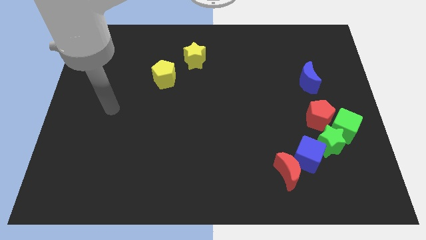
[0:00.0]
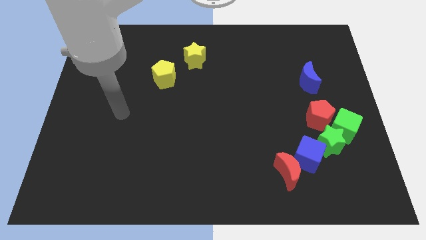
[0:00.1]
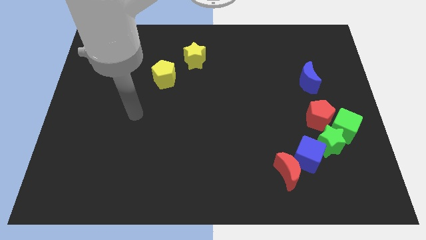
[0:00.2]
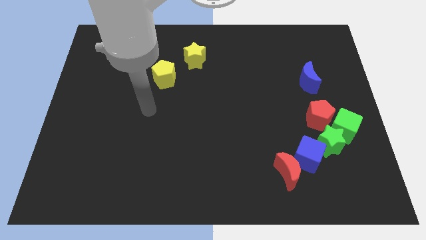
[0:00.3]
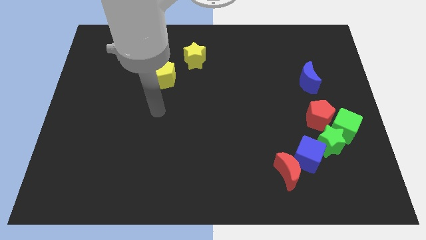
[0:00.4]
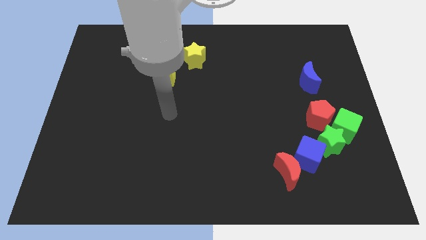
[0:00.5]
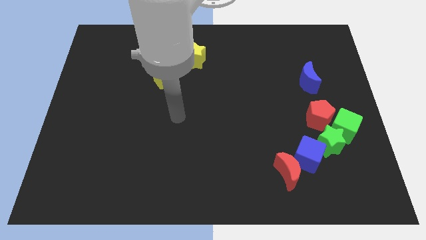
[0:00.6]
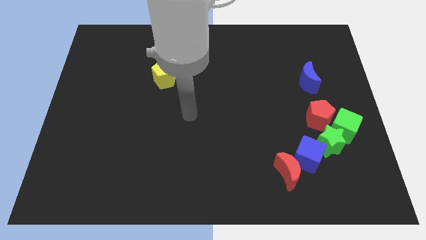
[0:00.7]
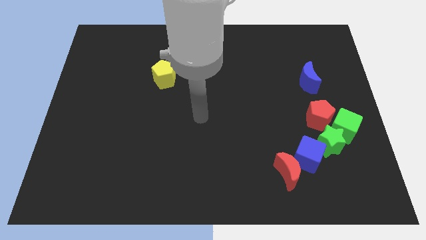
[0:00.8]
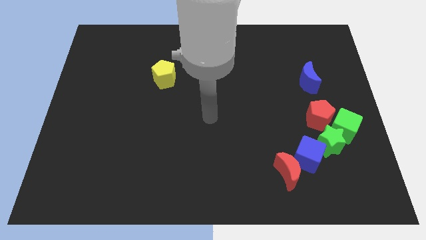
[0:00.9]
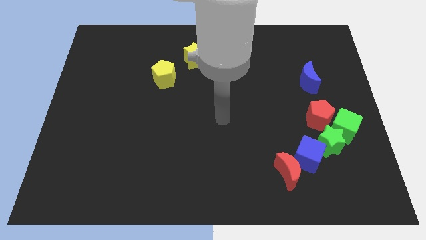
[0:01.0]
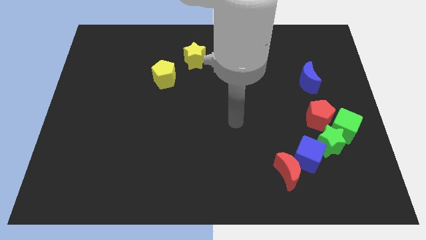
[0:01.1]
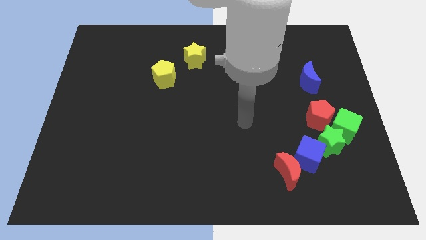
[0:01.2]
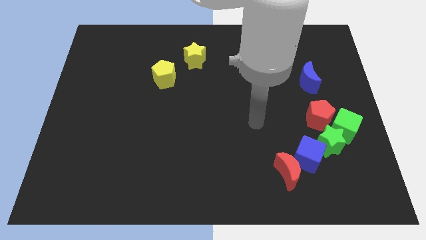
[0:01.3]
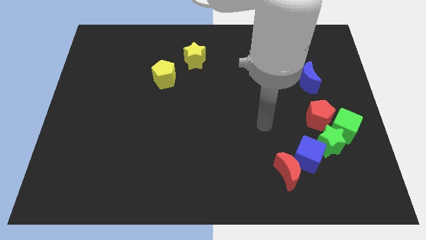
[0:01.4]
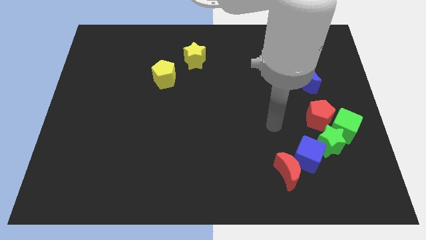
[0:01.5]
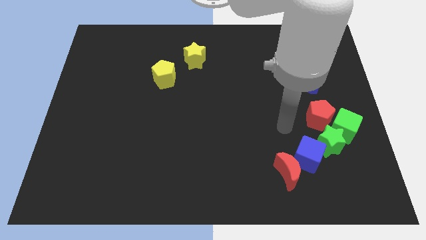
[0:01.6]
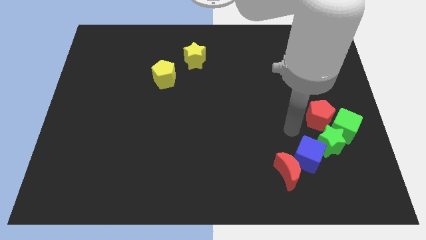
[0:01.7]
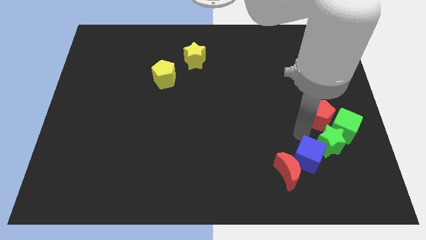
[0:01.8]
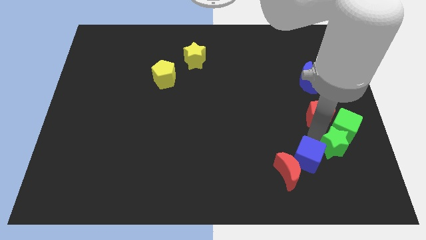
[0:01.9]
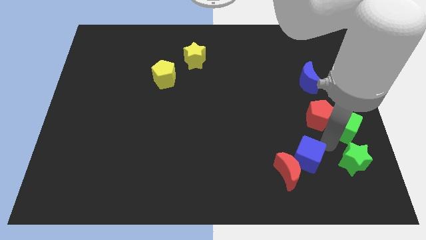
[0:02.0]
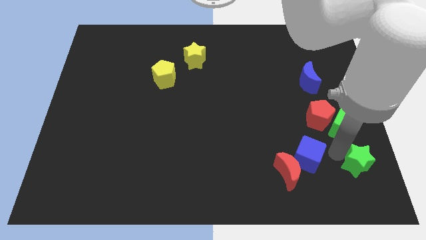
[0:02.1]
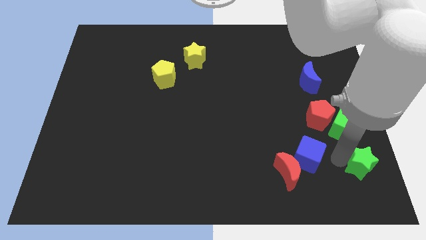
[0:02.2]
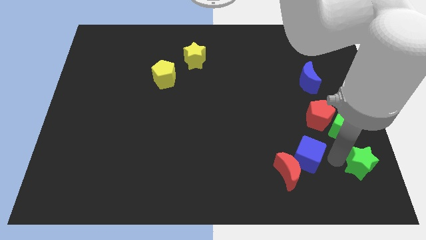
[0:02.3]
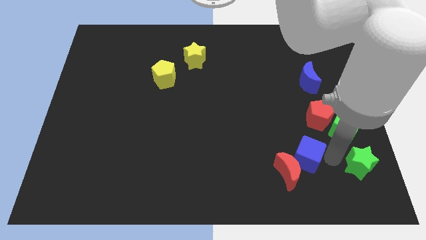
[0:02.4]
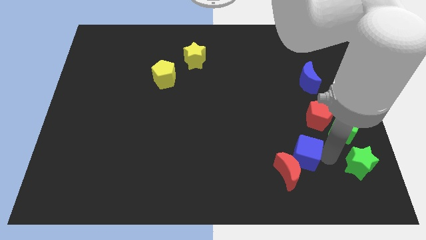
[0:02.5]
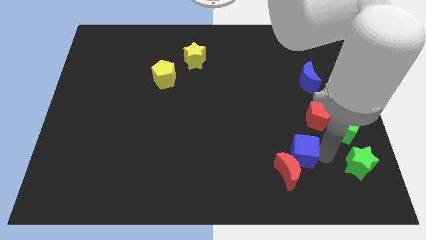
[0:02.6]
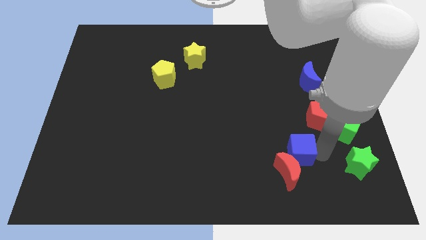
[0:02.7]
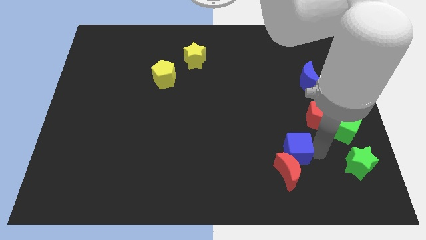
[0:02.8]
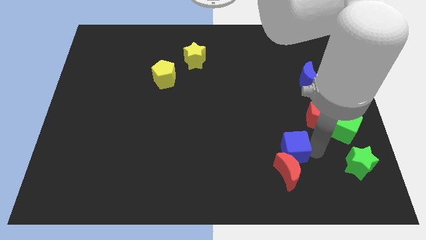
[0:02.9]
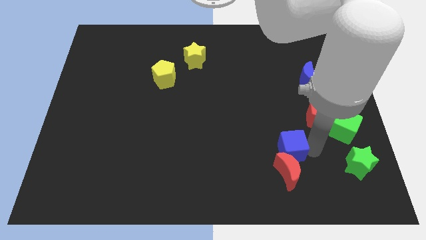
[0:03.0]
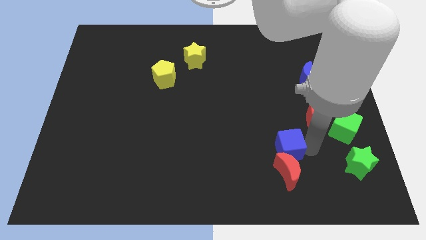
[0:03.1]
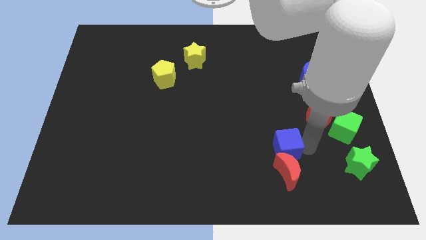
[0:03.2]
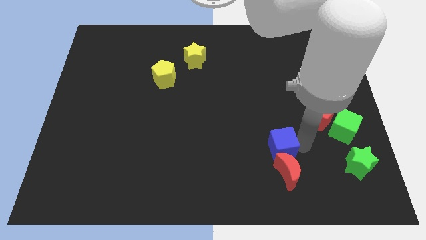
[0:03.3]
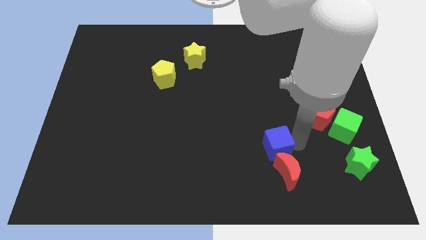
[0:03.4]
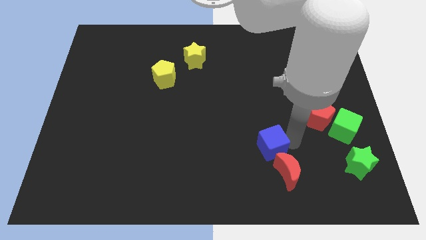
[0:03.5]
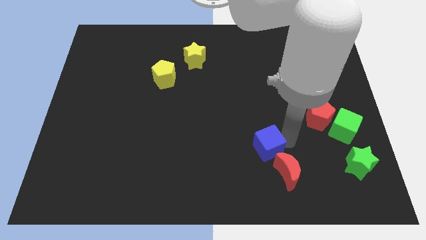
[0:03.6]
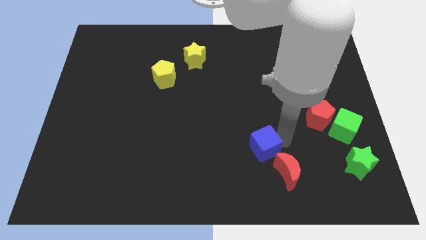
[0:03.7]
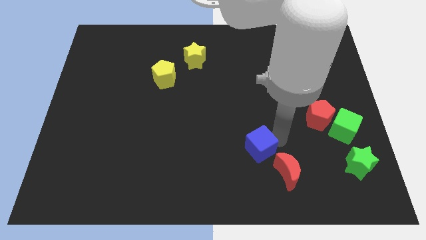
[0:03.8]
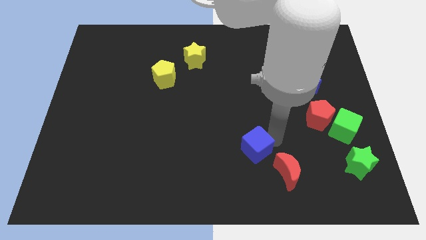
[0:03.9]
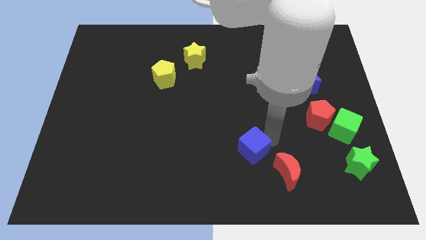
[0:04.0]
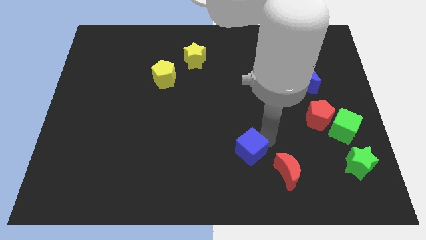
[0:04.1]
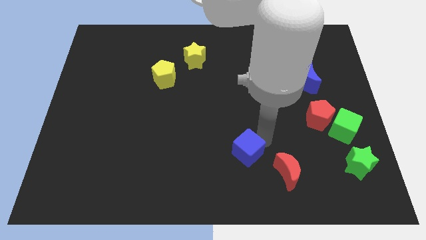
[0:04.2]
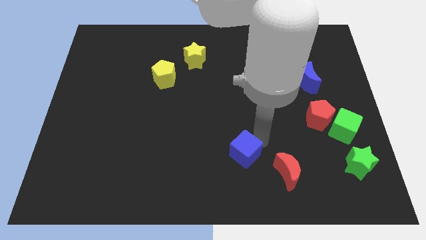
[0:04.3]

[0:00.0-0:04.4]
move the blue cube left of the red moon

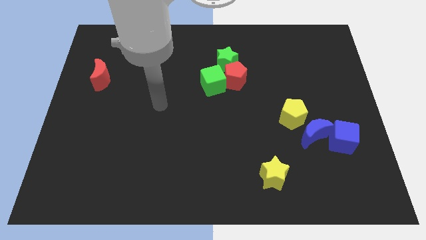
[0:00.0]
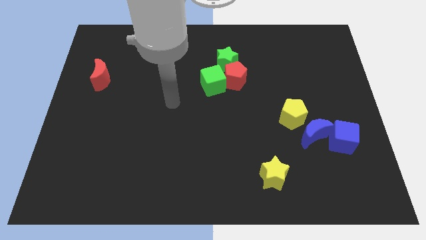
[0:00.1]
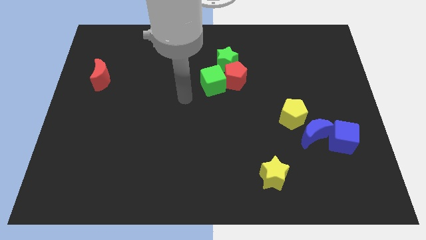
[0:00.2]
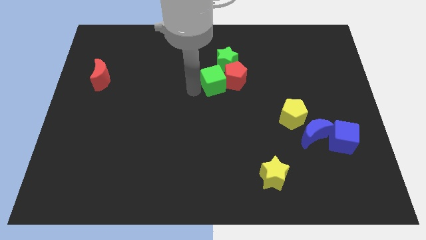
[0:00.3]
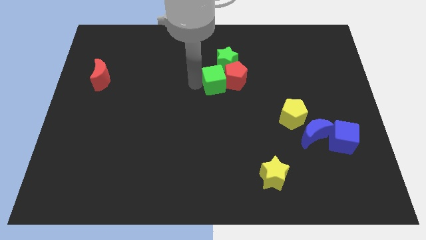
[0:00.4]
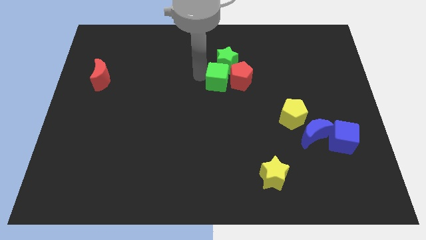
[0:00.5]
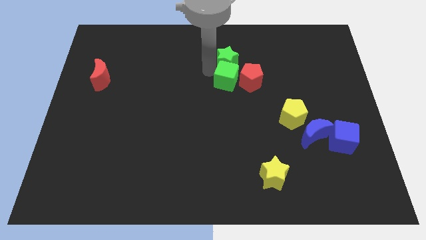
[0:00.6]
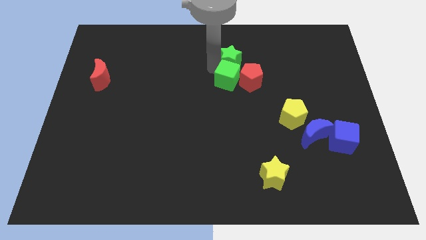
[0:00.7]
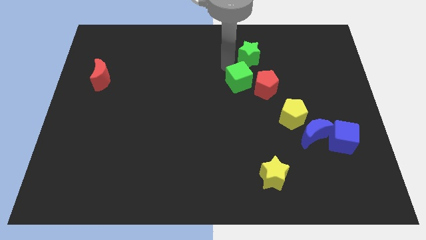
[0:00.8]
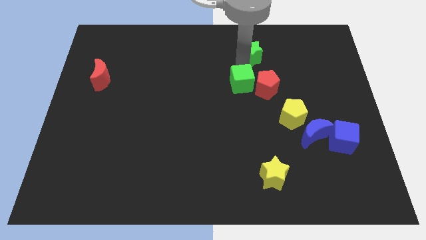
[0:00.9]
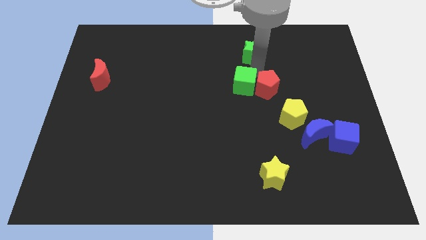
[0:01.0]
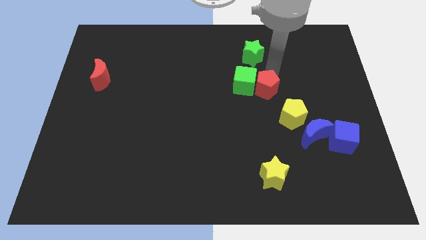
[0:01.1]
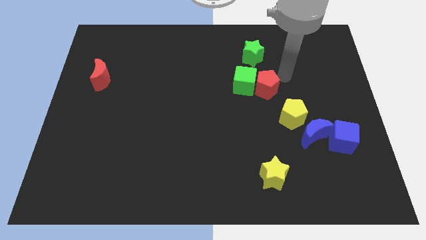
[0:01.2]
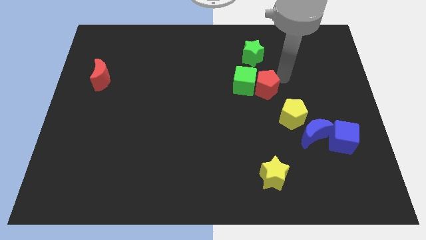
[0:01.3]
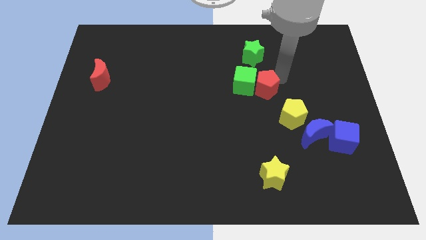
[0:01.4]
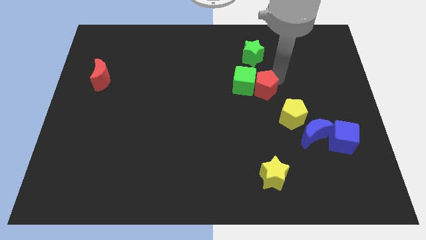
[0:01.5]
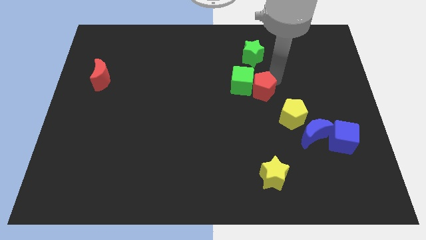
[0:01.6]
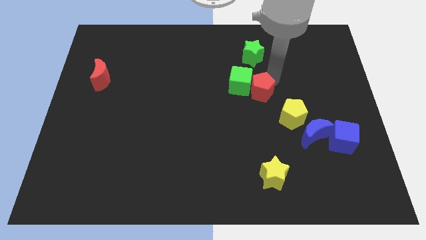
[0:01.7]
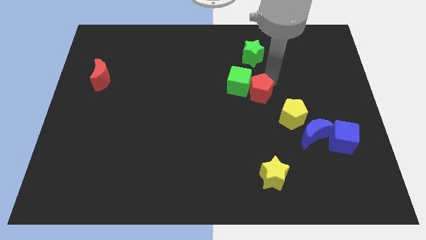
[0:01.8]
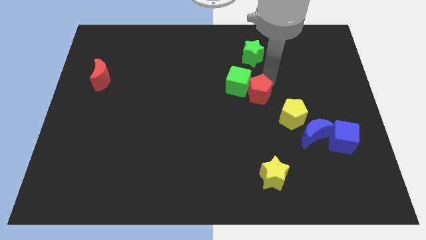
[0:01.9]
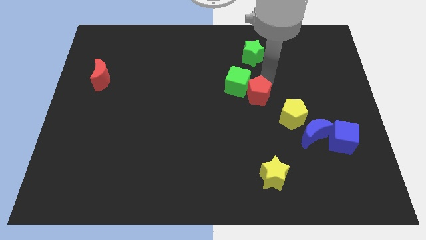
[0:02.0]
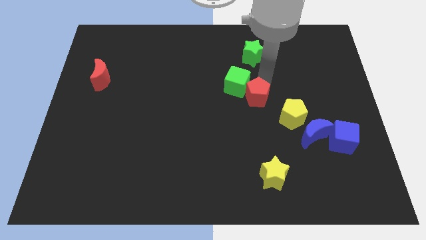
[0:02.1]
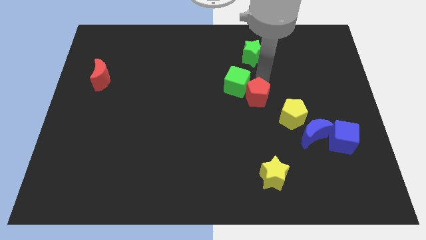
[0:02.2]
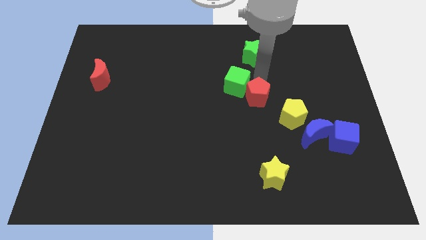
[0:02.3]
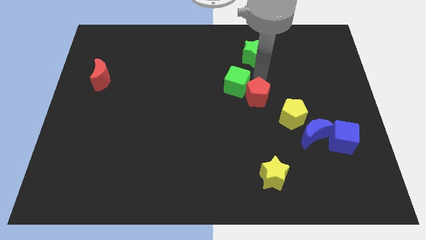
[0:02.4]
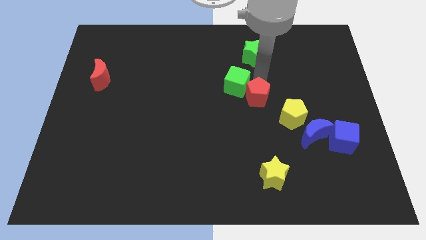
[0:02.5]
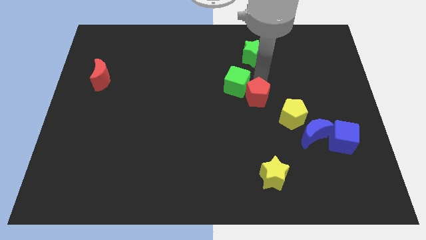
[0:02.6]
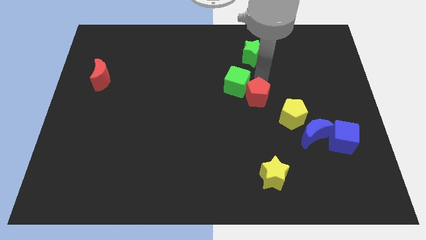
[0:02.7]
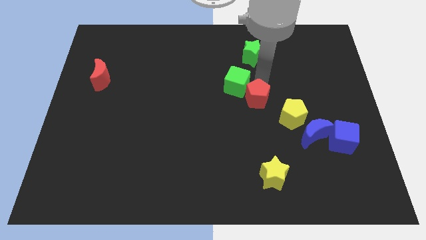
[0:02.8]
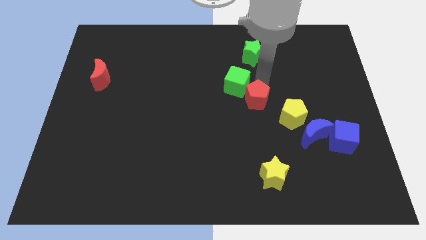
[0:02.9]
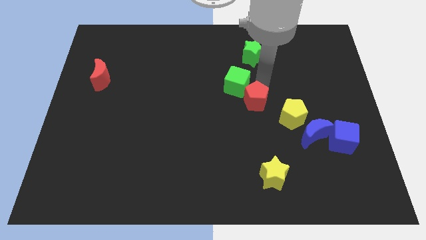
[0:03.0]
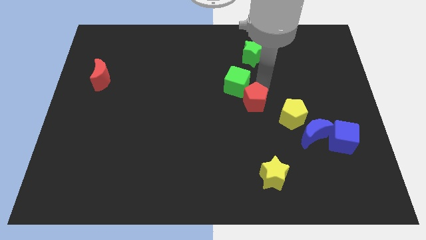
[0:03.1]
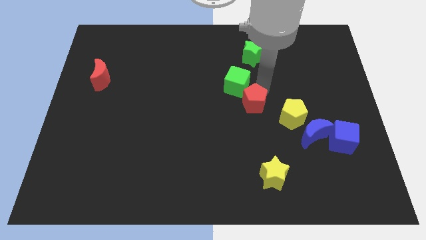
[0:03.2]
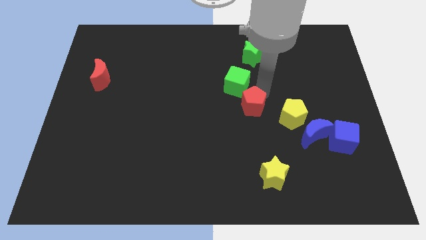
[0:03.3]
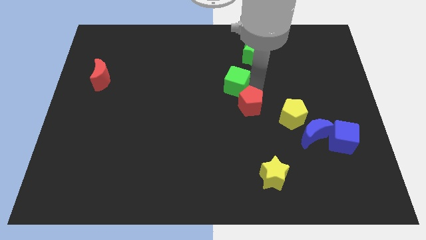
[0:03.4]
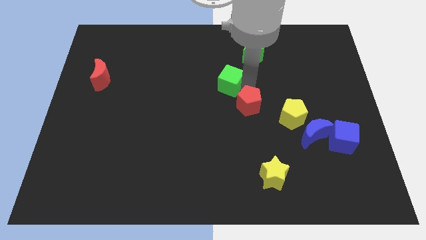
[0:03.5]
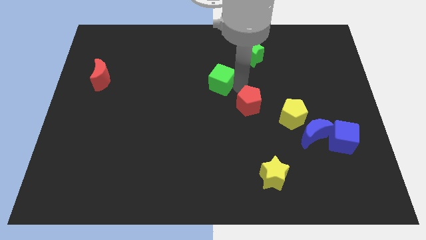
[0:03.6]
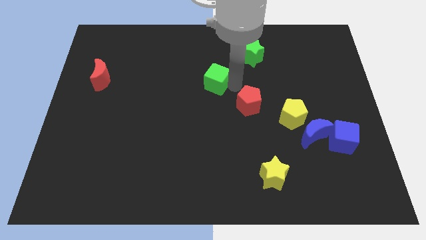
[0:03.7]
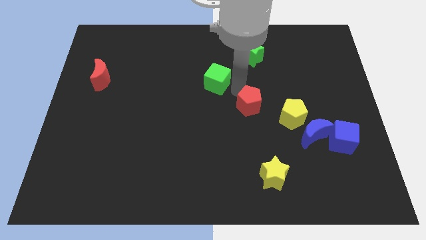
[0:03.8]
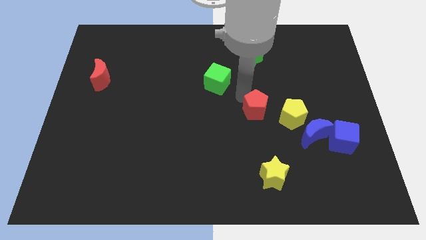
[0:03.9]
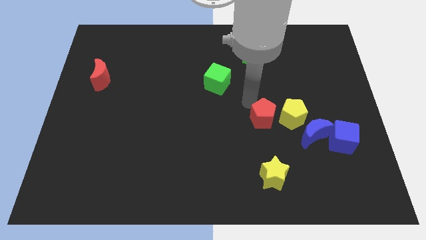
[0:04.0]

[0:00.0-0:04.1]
move the red pentagon to the bottom left of the yellow pentagon
